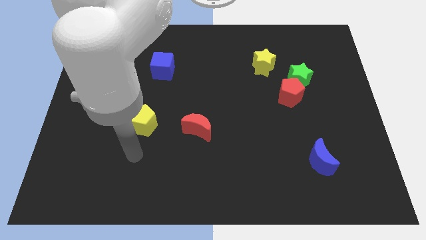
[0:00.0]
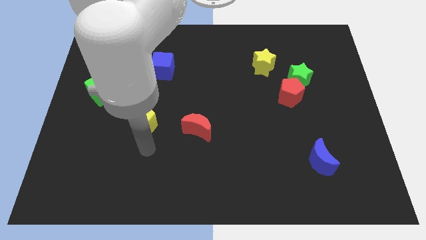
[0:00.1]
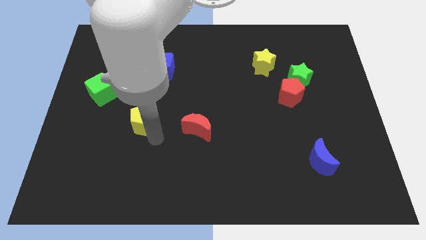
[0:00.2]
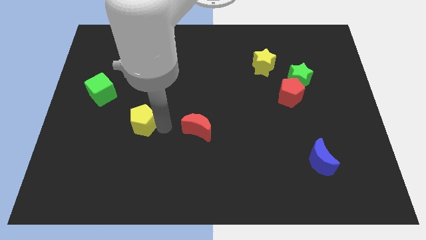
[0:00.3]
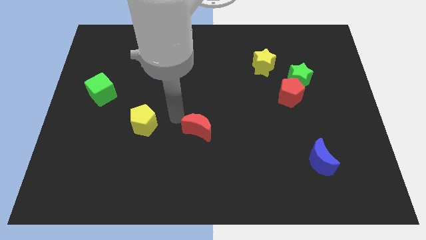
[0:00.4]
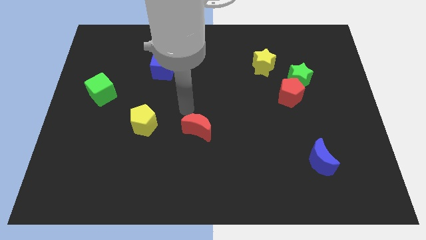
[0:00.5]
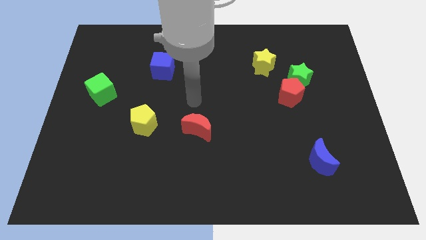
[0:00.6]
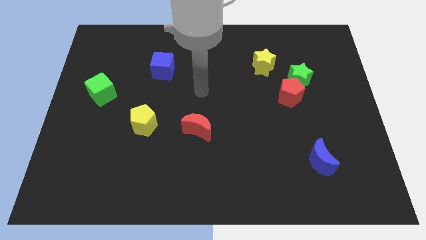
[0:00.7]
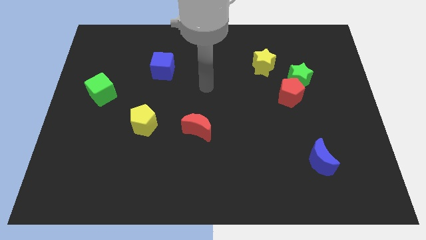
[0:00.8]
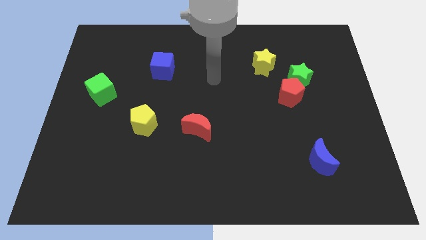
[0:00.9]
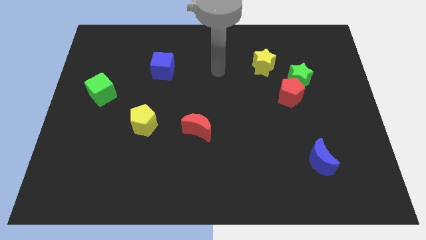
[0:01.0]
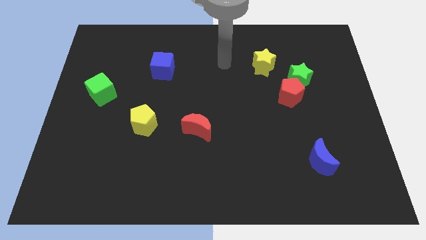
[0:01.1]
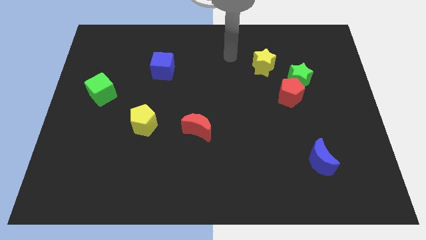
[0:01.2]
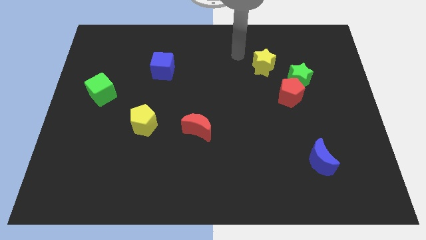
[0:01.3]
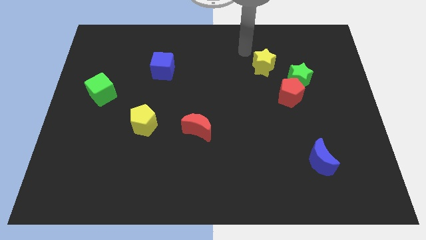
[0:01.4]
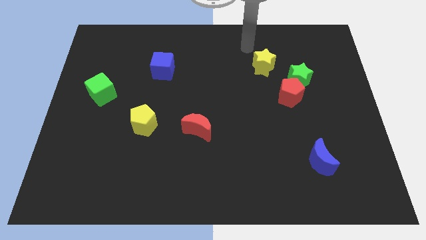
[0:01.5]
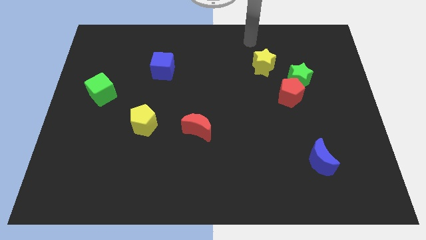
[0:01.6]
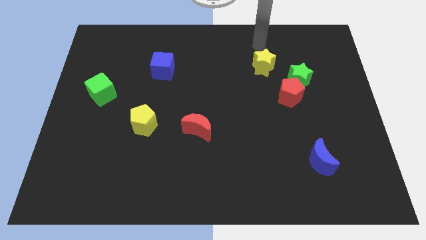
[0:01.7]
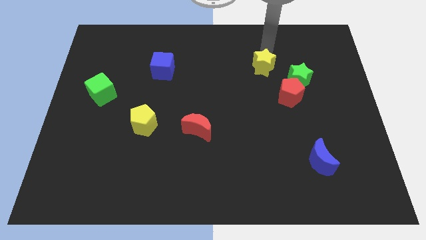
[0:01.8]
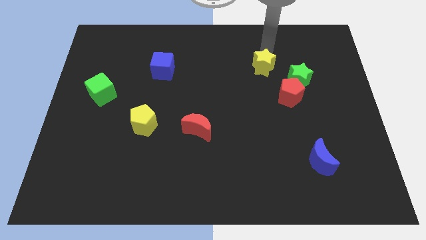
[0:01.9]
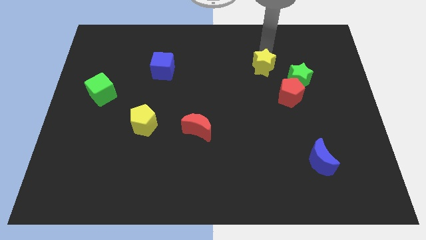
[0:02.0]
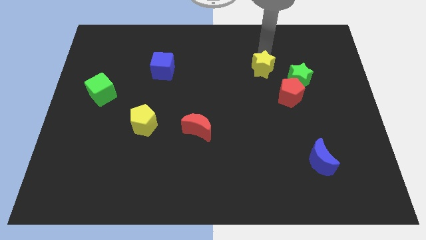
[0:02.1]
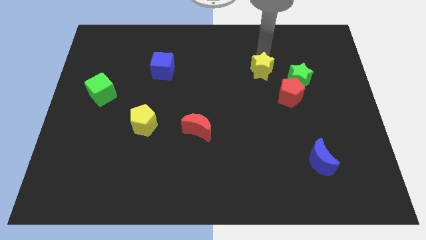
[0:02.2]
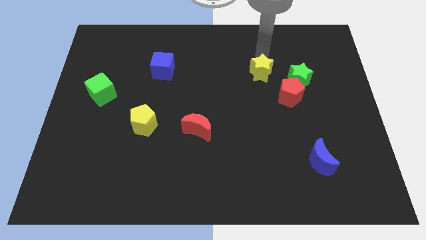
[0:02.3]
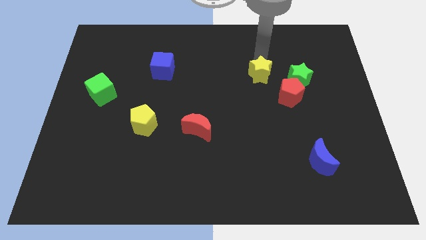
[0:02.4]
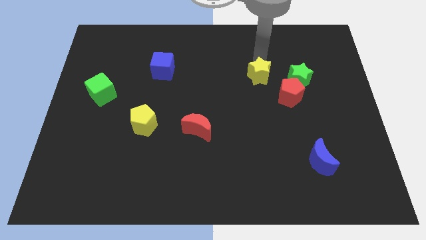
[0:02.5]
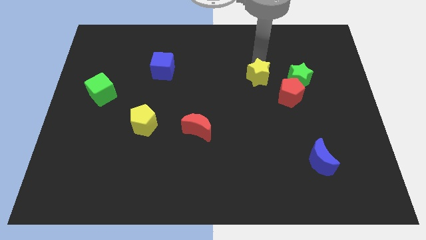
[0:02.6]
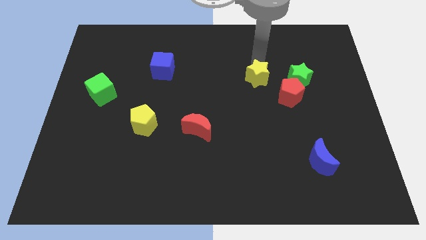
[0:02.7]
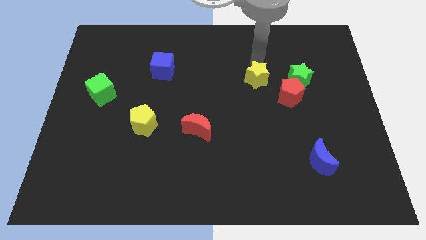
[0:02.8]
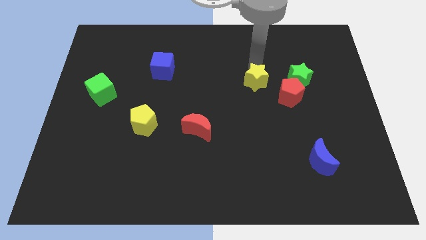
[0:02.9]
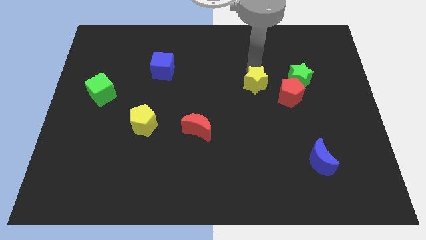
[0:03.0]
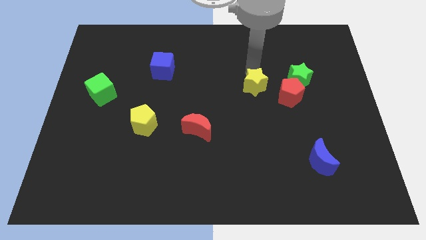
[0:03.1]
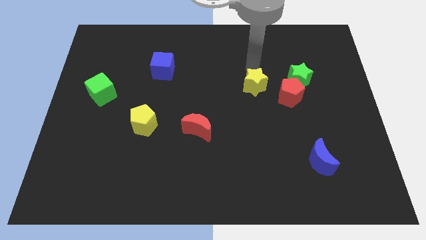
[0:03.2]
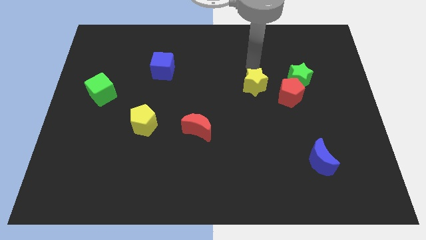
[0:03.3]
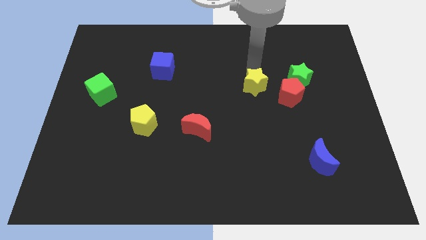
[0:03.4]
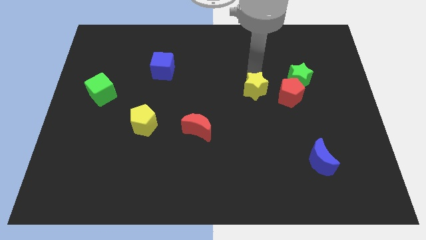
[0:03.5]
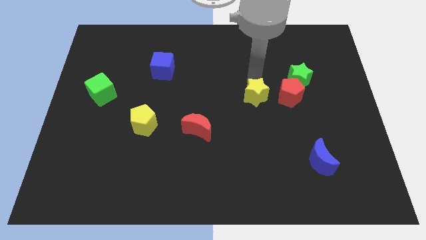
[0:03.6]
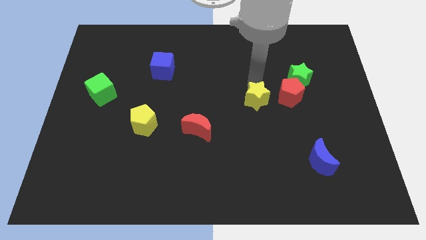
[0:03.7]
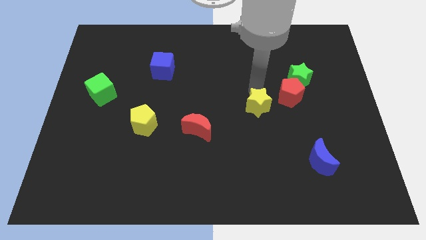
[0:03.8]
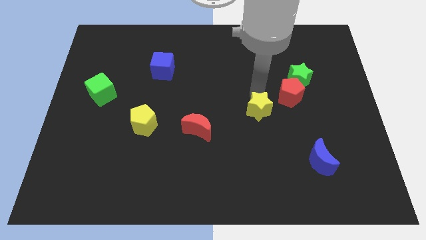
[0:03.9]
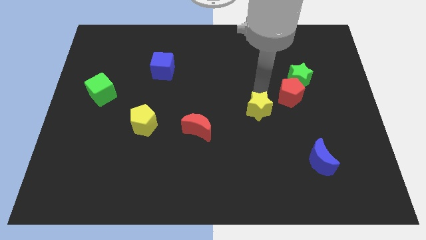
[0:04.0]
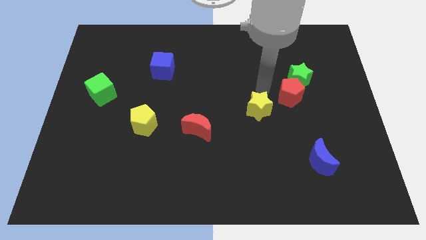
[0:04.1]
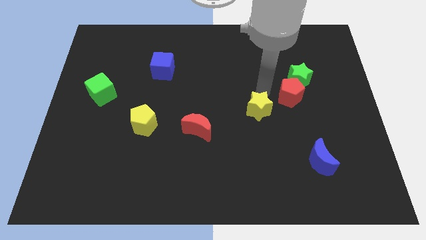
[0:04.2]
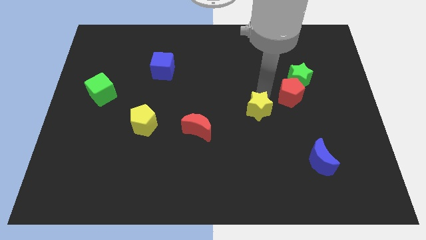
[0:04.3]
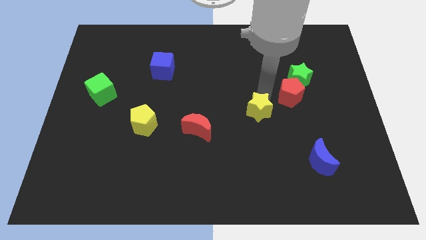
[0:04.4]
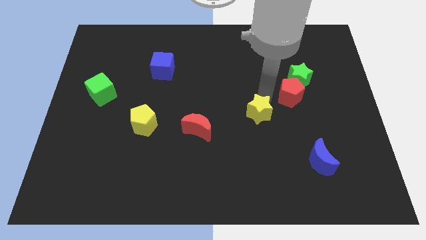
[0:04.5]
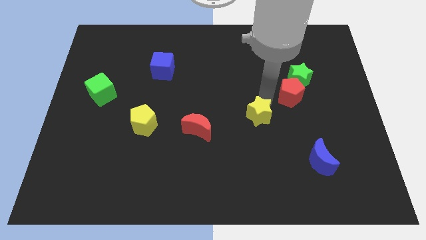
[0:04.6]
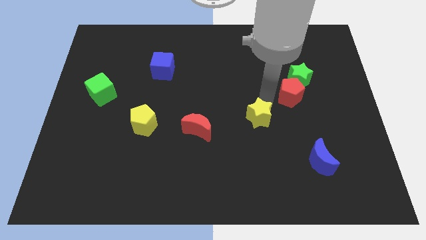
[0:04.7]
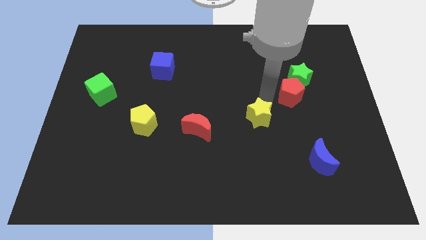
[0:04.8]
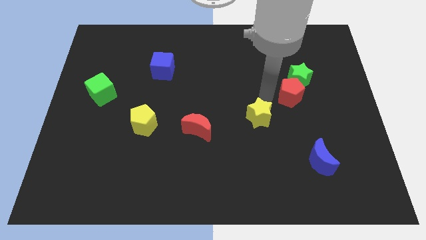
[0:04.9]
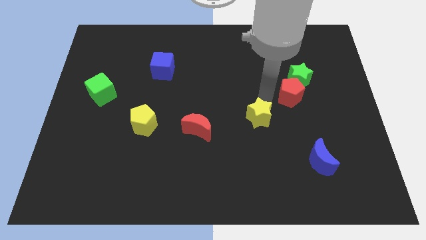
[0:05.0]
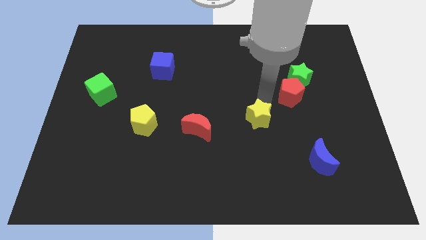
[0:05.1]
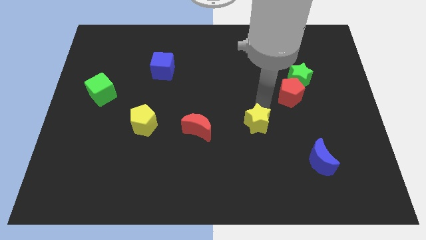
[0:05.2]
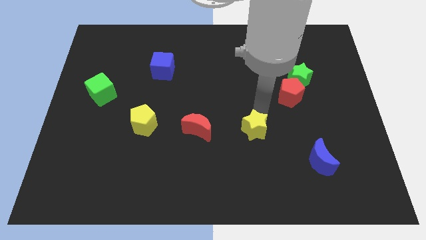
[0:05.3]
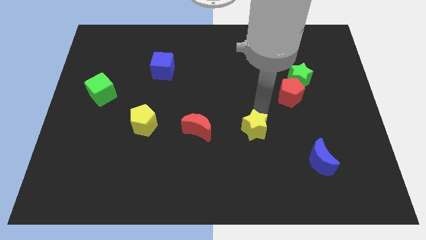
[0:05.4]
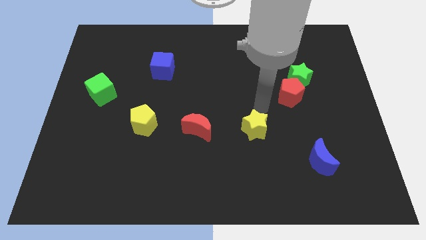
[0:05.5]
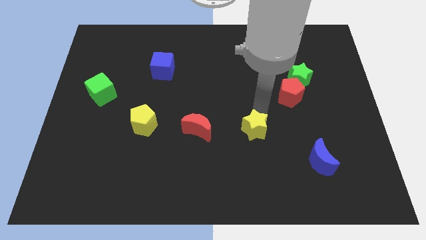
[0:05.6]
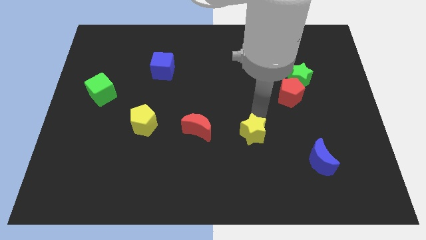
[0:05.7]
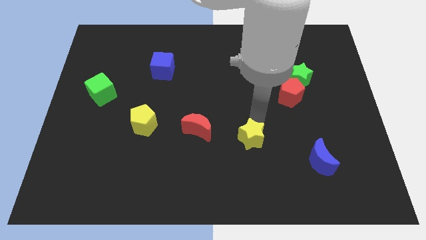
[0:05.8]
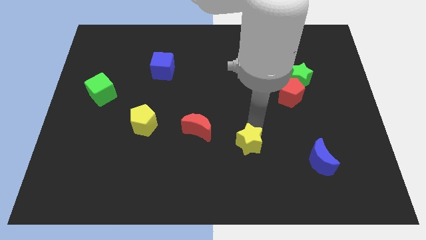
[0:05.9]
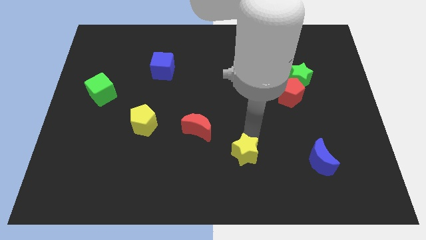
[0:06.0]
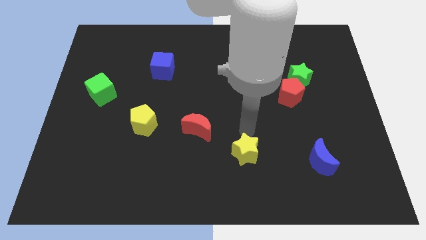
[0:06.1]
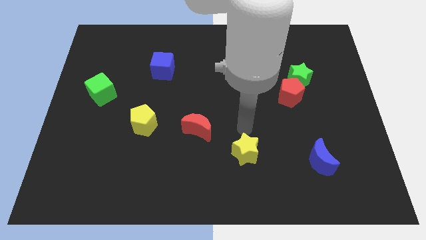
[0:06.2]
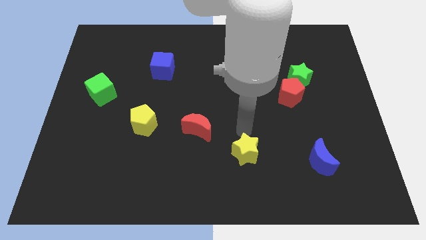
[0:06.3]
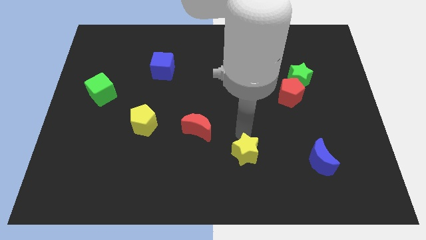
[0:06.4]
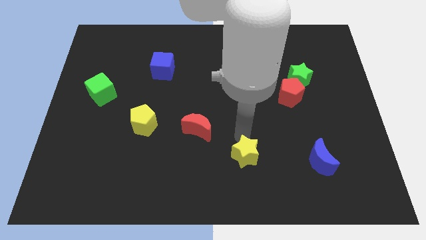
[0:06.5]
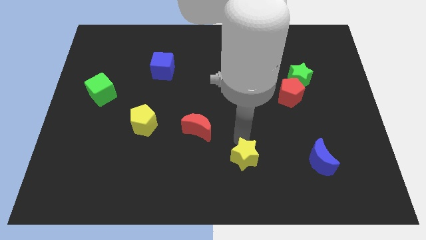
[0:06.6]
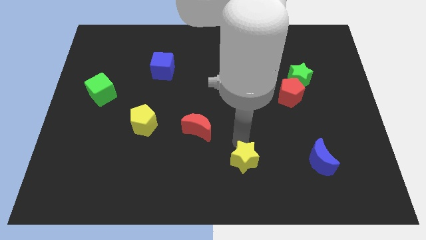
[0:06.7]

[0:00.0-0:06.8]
slide the yellow star to the bottom
